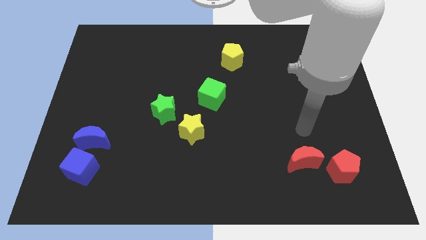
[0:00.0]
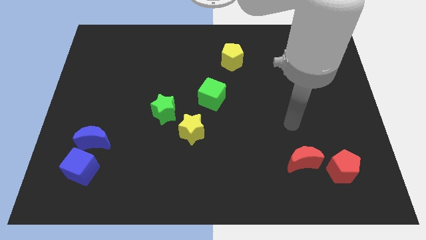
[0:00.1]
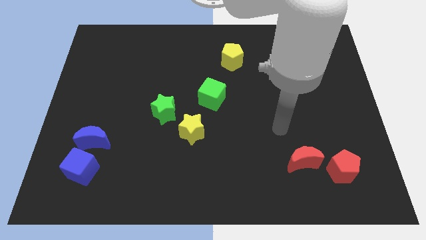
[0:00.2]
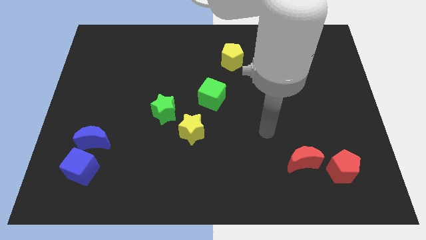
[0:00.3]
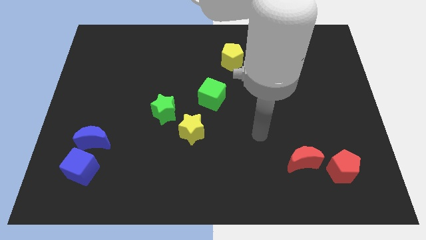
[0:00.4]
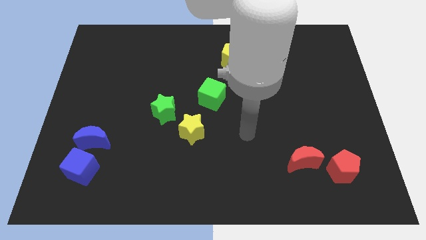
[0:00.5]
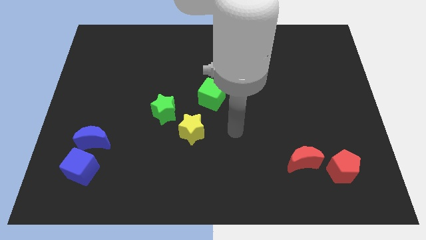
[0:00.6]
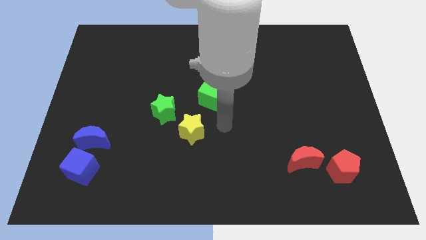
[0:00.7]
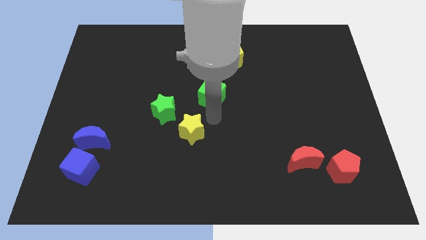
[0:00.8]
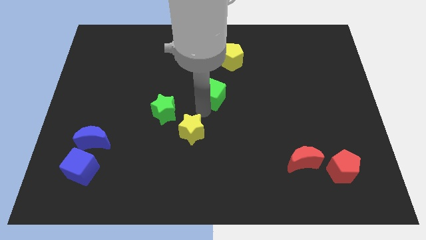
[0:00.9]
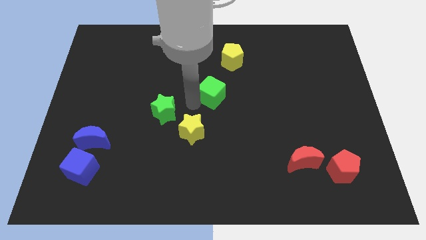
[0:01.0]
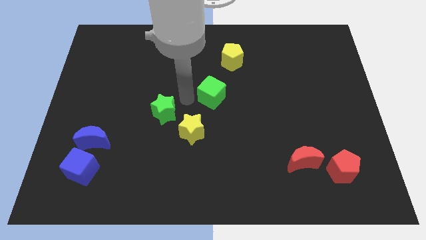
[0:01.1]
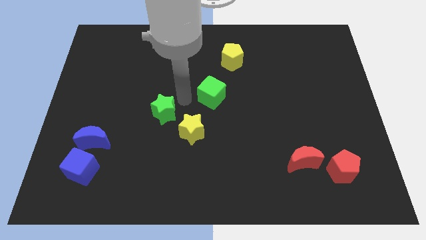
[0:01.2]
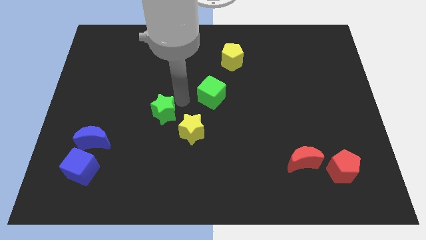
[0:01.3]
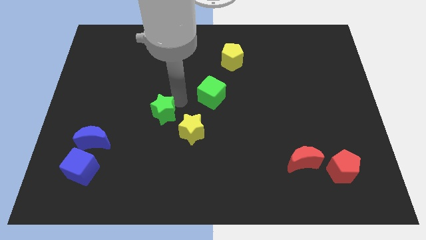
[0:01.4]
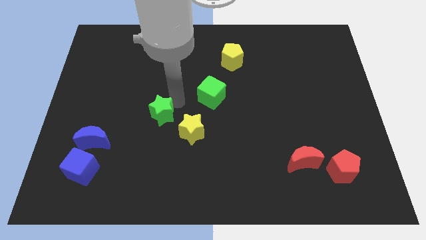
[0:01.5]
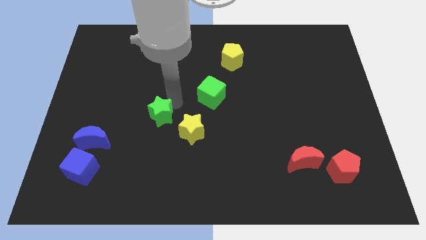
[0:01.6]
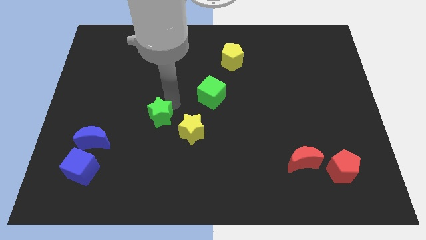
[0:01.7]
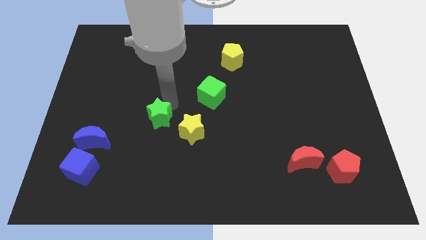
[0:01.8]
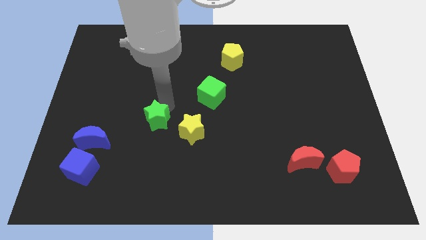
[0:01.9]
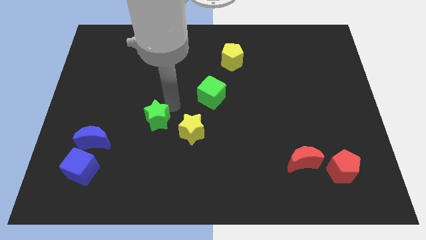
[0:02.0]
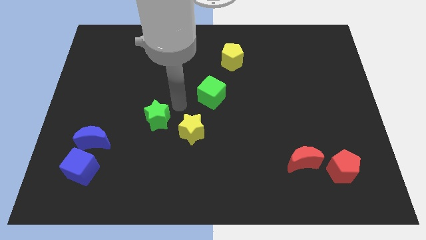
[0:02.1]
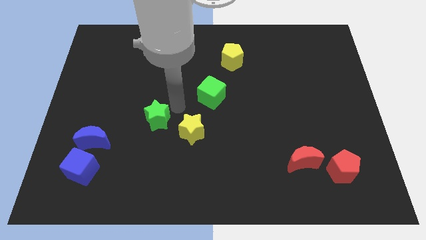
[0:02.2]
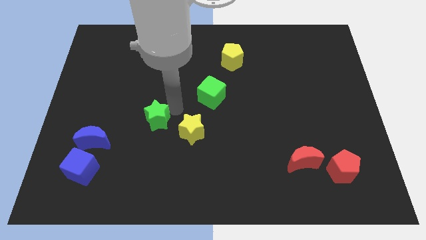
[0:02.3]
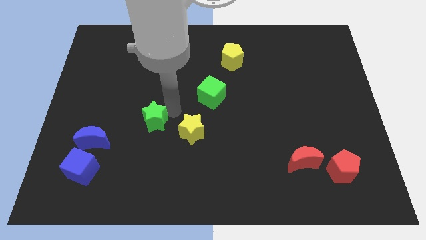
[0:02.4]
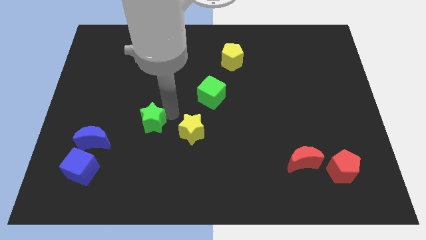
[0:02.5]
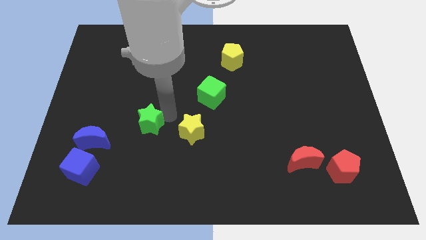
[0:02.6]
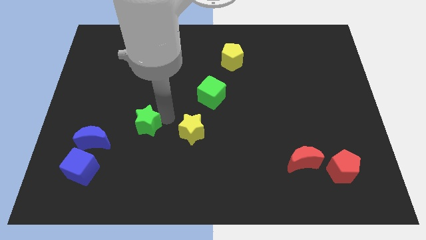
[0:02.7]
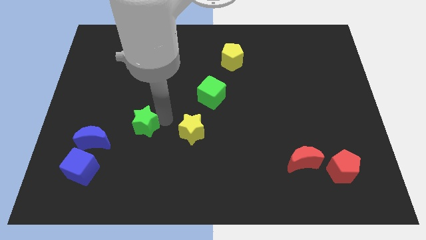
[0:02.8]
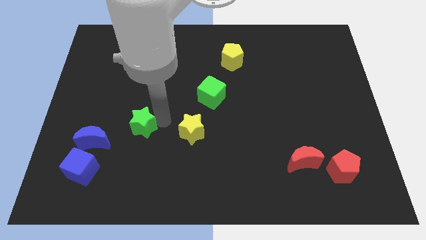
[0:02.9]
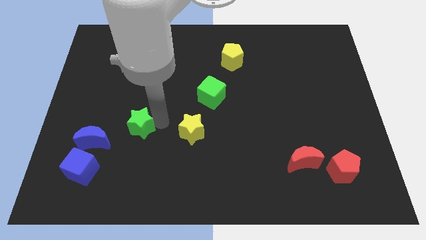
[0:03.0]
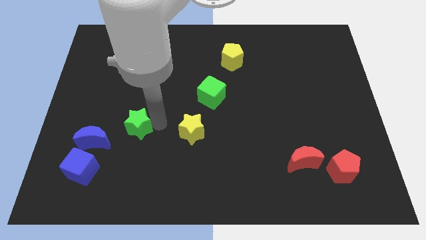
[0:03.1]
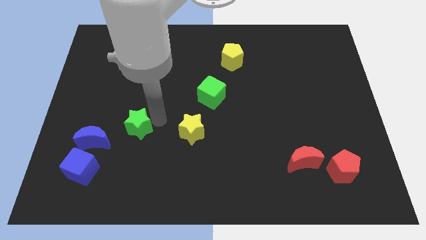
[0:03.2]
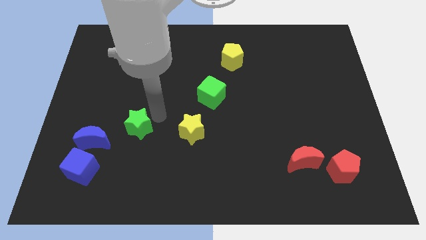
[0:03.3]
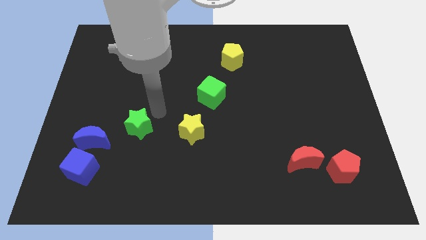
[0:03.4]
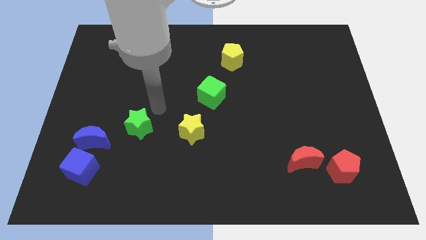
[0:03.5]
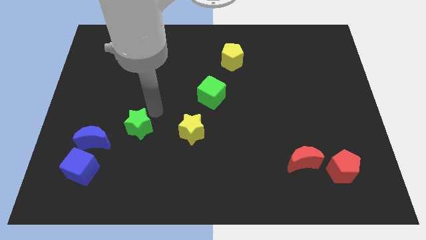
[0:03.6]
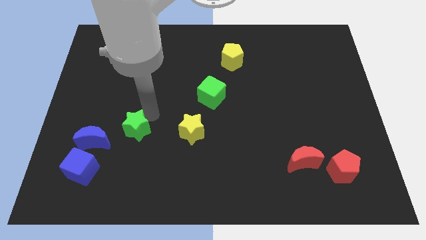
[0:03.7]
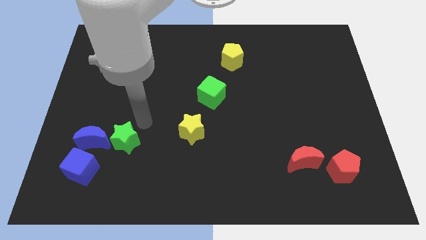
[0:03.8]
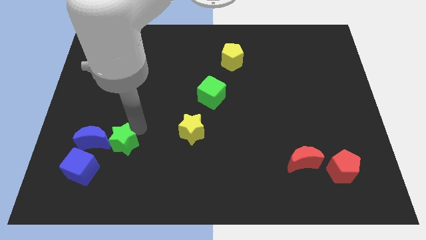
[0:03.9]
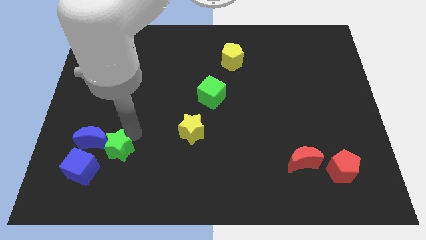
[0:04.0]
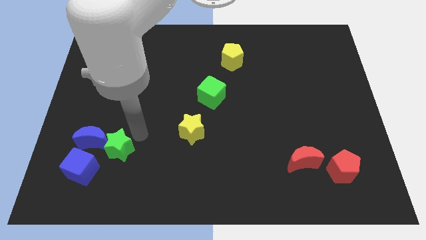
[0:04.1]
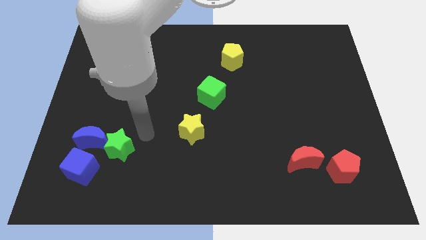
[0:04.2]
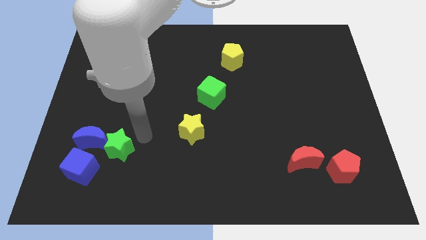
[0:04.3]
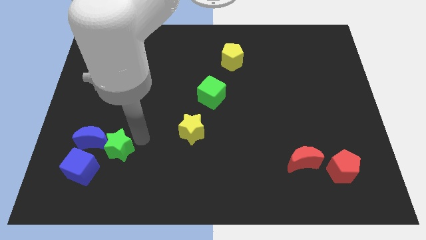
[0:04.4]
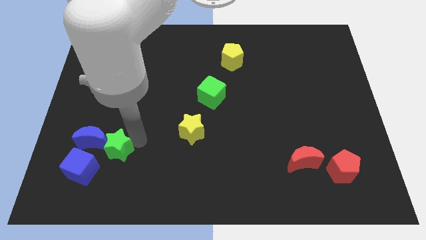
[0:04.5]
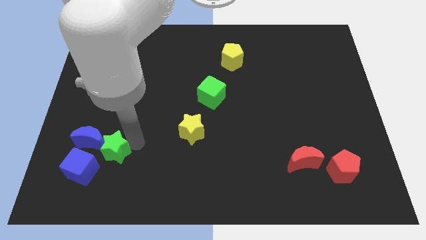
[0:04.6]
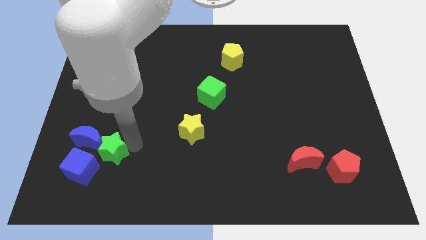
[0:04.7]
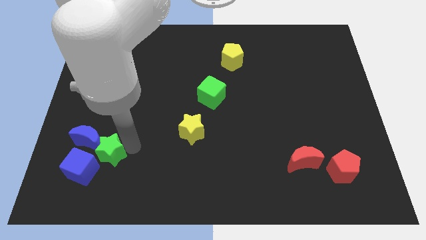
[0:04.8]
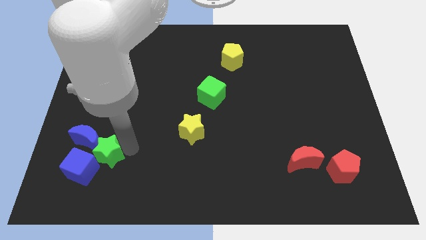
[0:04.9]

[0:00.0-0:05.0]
push the green star close to the blue cube

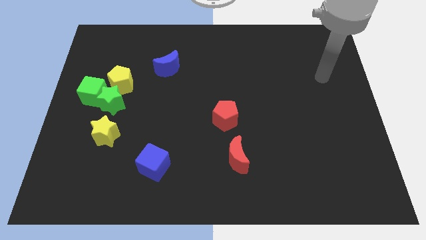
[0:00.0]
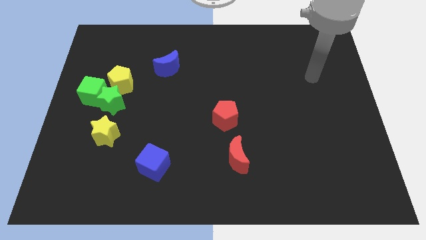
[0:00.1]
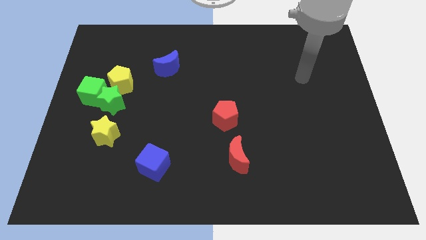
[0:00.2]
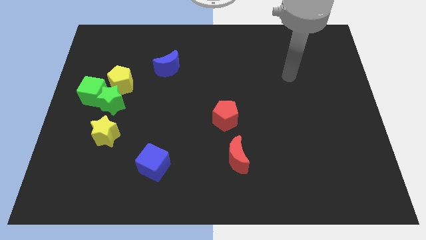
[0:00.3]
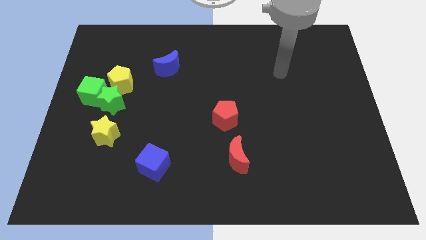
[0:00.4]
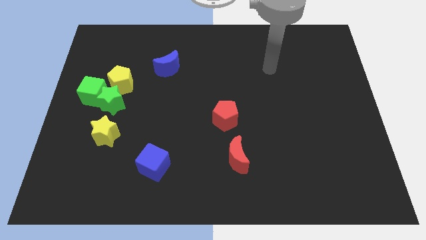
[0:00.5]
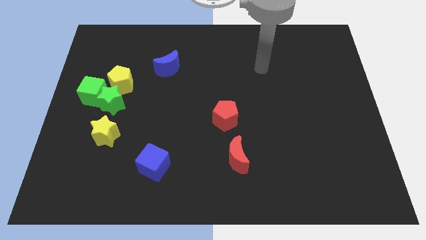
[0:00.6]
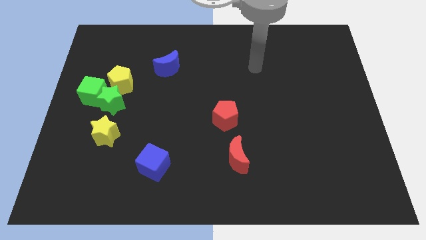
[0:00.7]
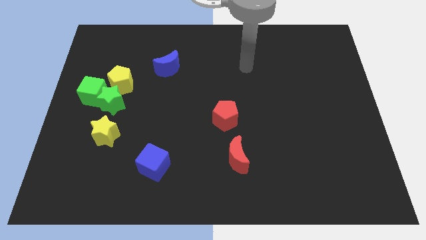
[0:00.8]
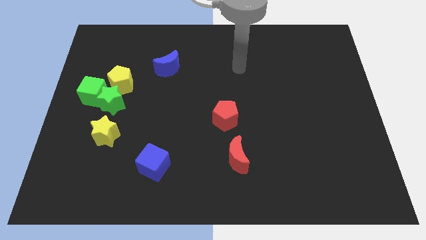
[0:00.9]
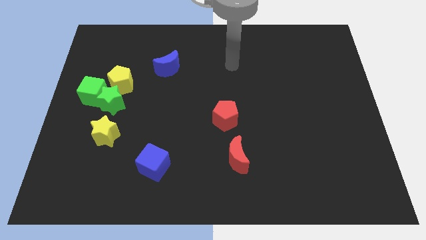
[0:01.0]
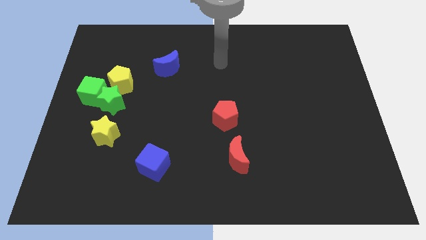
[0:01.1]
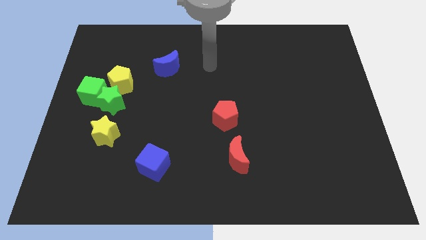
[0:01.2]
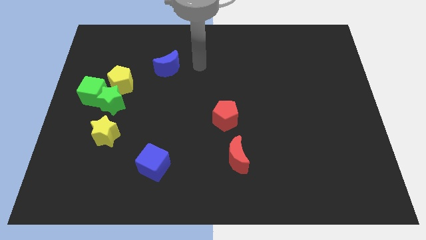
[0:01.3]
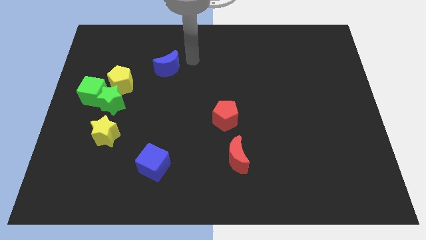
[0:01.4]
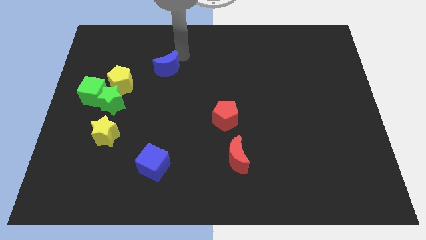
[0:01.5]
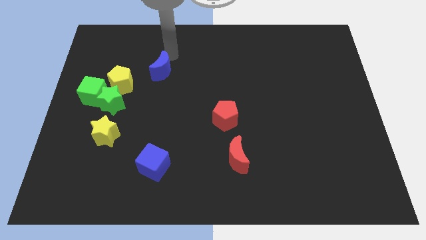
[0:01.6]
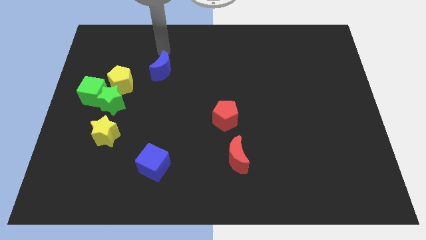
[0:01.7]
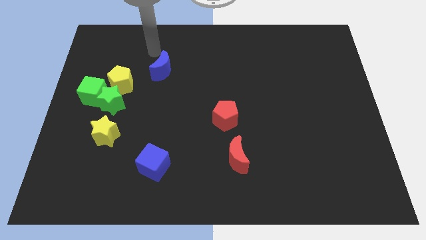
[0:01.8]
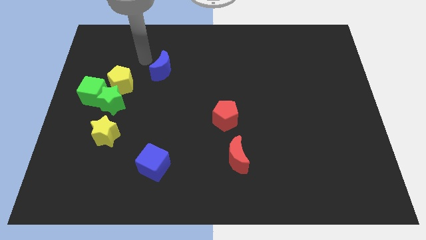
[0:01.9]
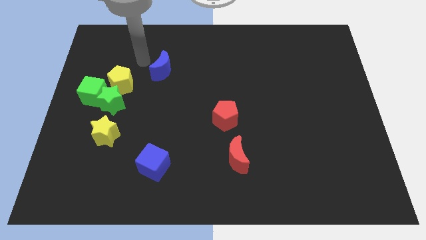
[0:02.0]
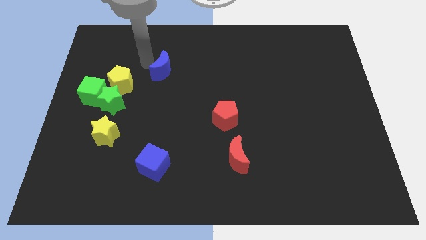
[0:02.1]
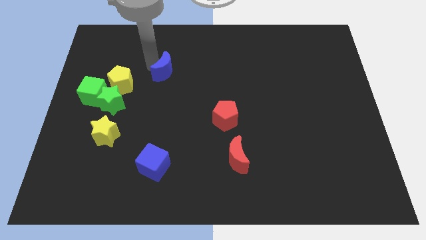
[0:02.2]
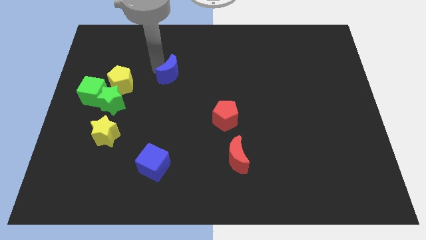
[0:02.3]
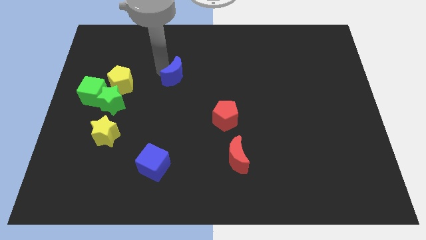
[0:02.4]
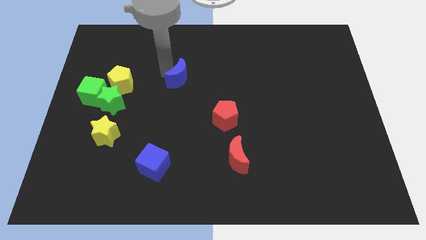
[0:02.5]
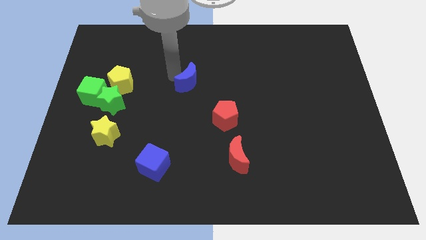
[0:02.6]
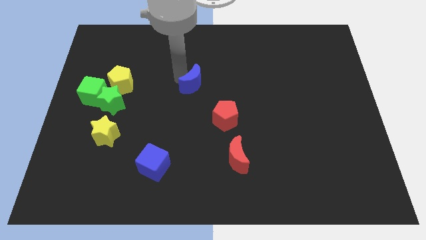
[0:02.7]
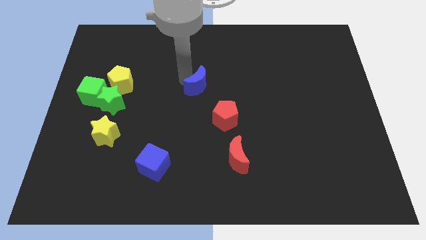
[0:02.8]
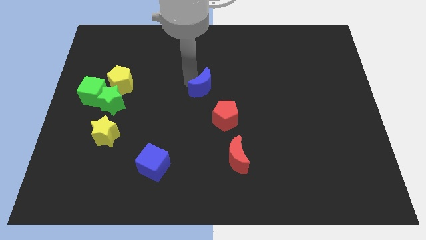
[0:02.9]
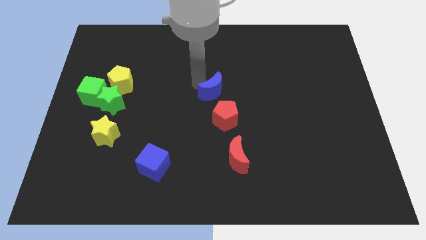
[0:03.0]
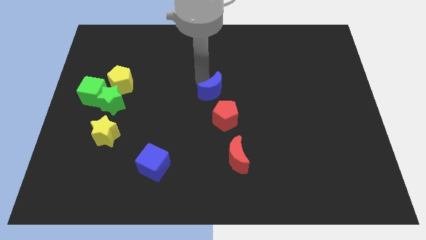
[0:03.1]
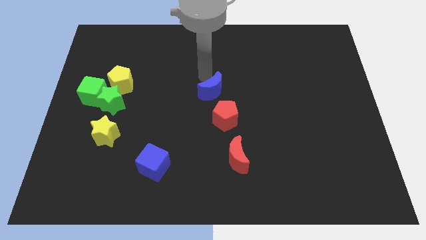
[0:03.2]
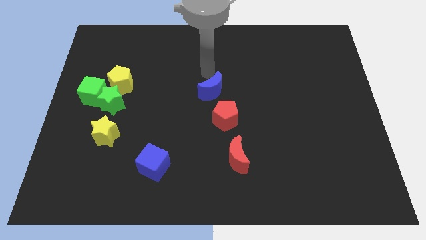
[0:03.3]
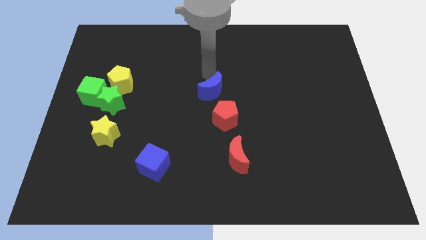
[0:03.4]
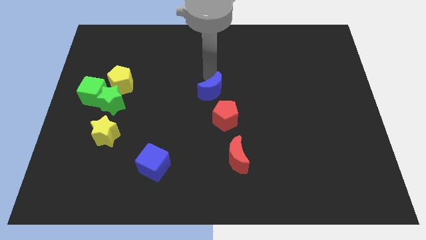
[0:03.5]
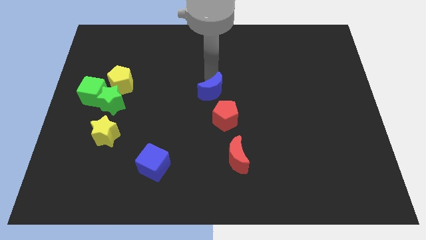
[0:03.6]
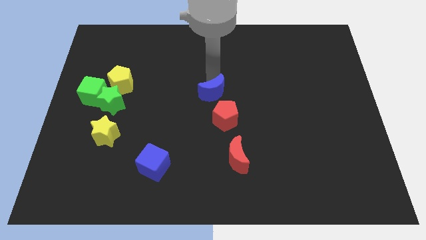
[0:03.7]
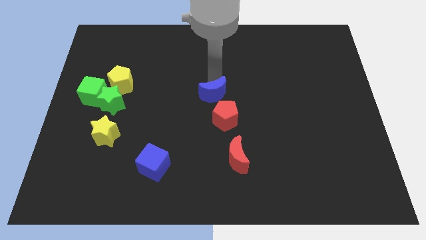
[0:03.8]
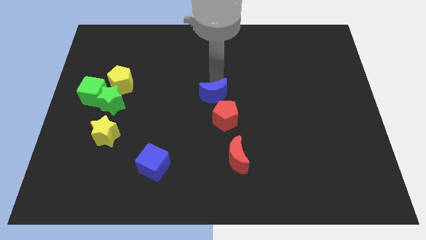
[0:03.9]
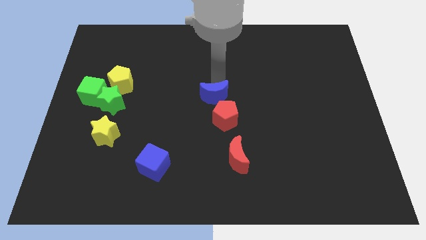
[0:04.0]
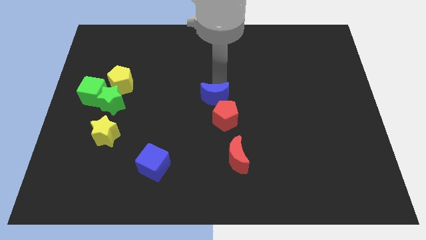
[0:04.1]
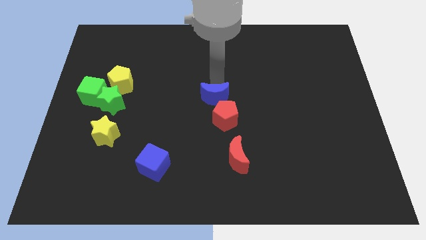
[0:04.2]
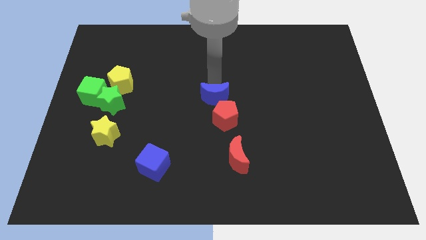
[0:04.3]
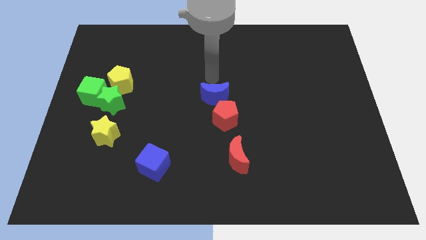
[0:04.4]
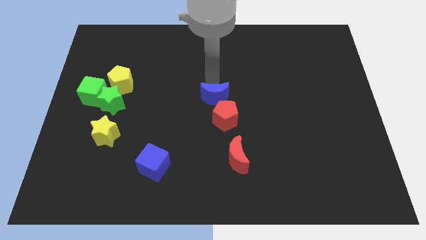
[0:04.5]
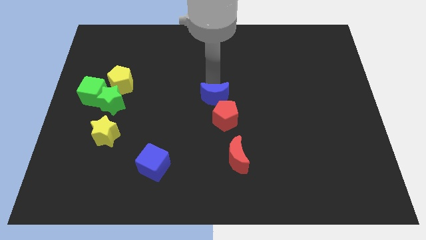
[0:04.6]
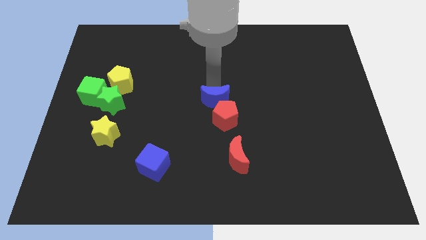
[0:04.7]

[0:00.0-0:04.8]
slide the blue moon to the red pentagon
